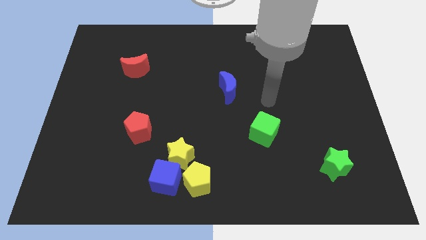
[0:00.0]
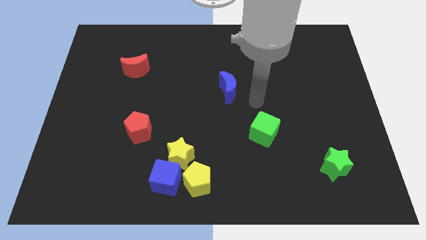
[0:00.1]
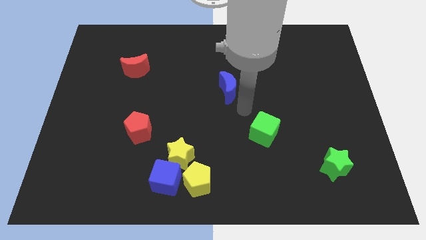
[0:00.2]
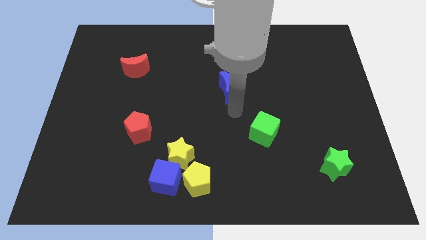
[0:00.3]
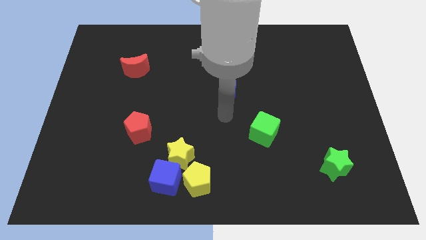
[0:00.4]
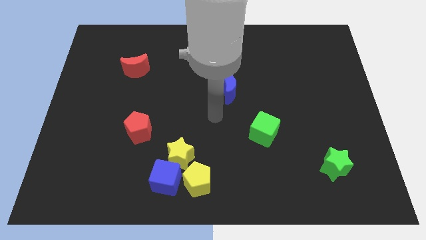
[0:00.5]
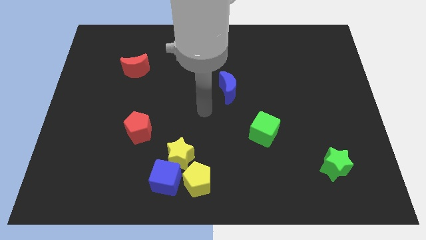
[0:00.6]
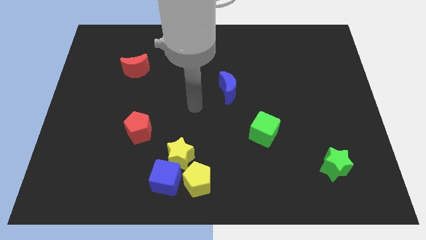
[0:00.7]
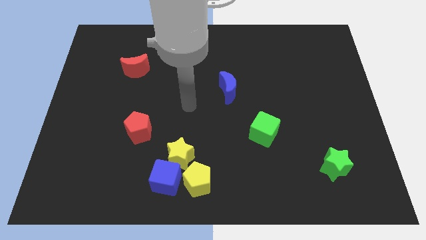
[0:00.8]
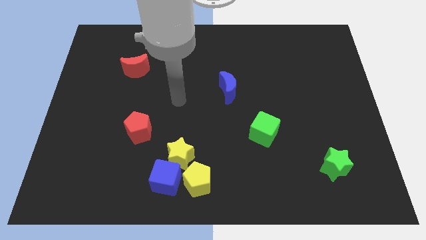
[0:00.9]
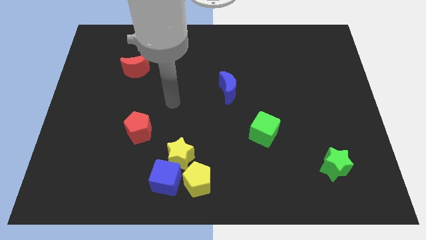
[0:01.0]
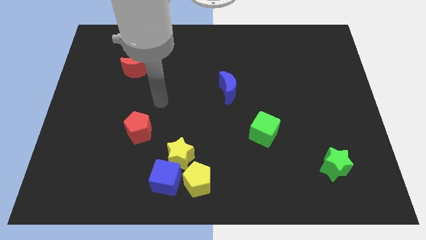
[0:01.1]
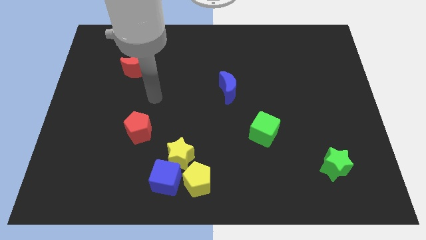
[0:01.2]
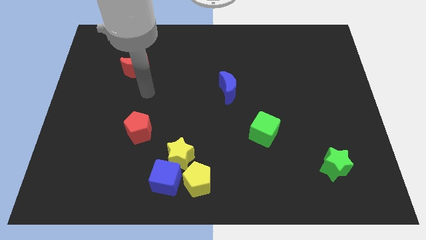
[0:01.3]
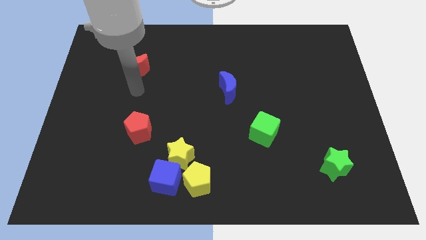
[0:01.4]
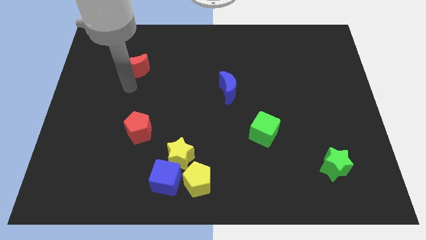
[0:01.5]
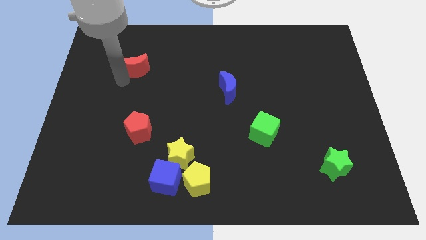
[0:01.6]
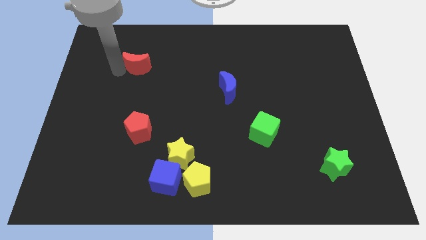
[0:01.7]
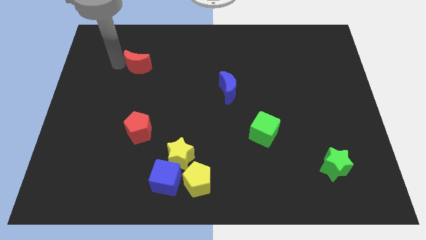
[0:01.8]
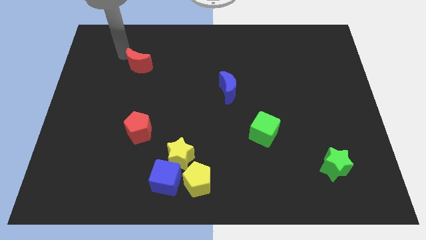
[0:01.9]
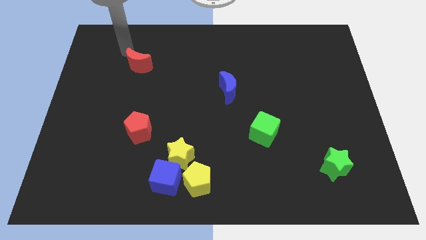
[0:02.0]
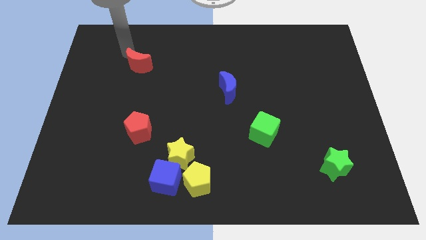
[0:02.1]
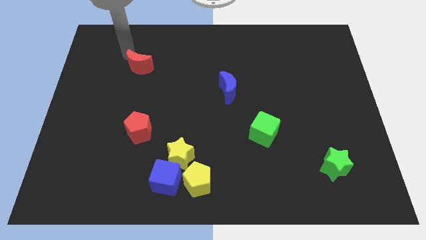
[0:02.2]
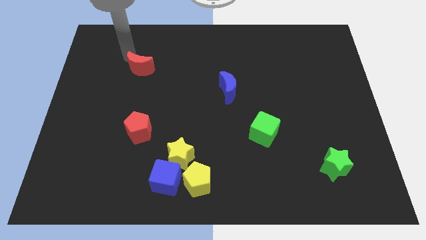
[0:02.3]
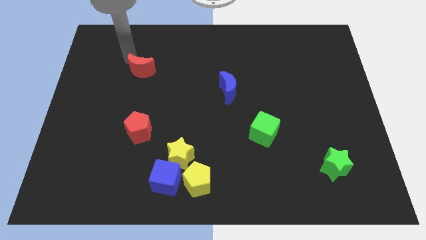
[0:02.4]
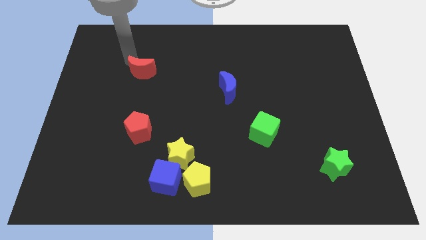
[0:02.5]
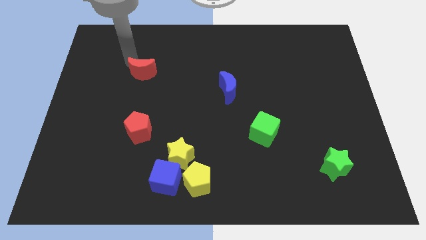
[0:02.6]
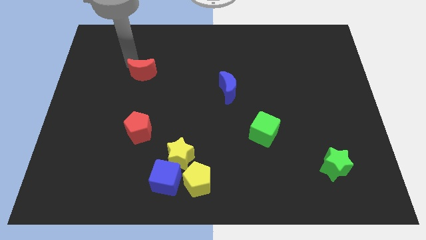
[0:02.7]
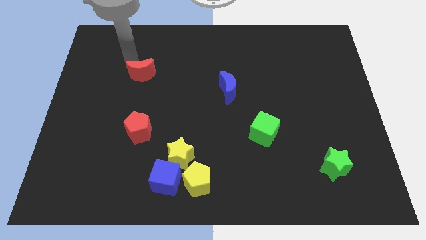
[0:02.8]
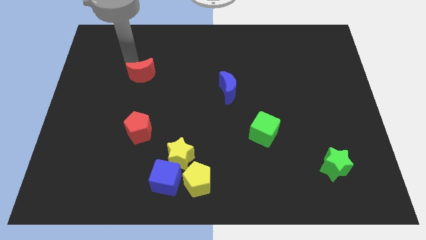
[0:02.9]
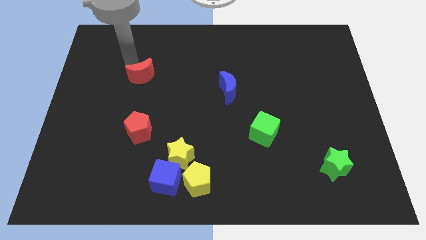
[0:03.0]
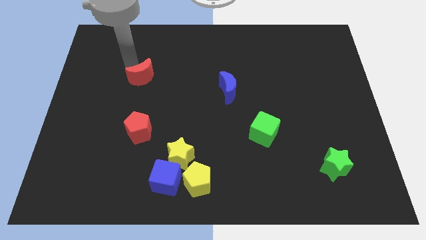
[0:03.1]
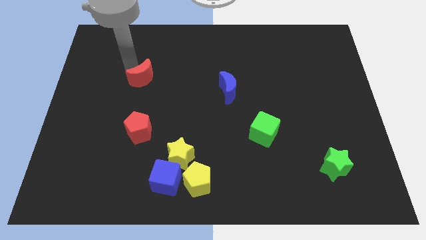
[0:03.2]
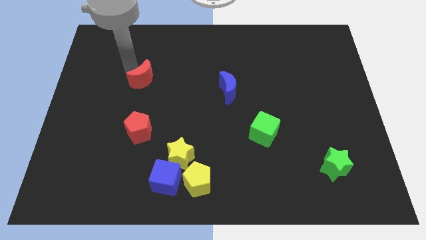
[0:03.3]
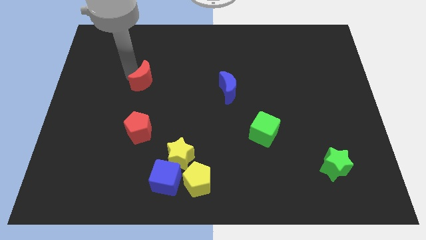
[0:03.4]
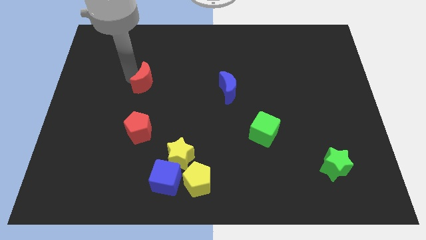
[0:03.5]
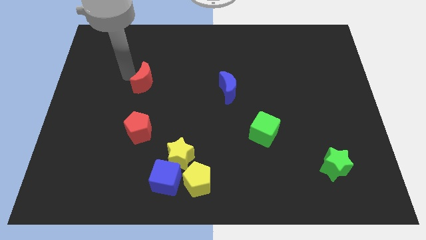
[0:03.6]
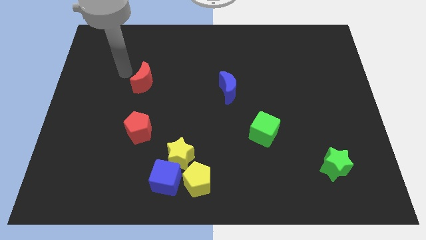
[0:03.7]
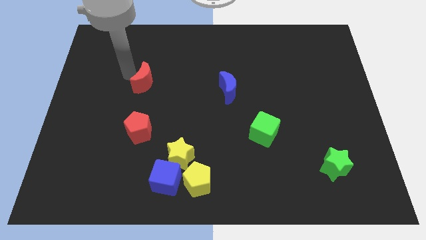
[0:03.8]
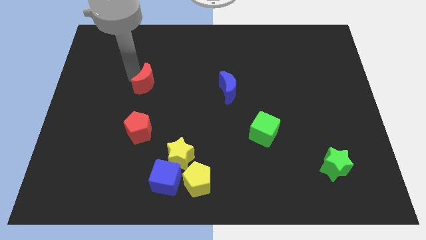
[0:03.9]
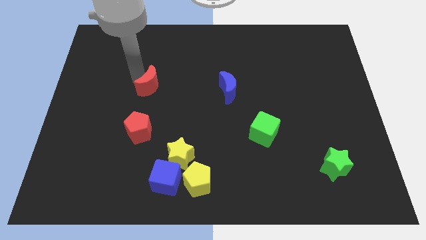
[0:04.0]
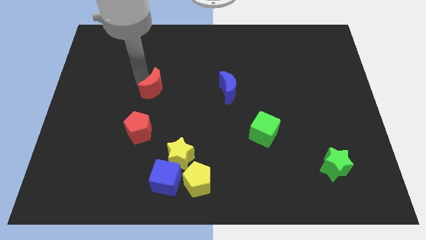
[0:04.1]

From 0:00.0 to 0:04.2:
slightly move the red moon down and right diagonally

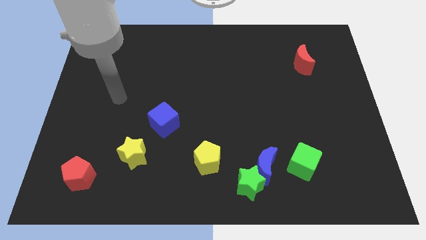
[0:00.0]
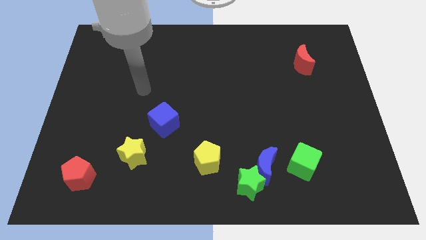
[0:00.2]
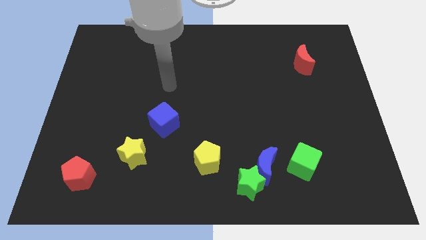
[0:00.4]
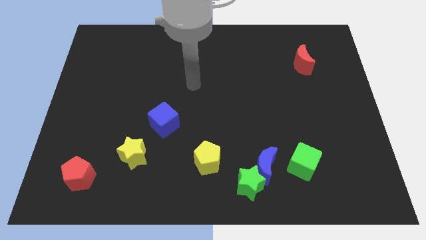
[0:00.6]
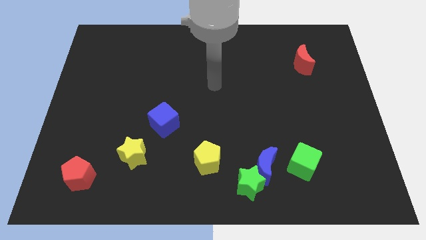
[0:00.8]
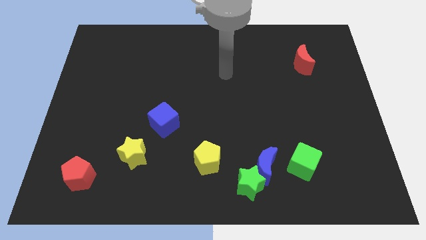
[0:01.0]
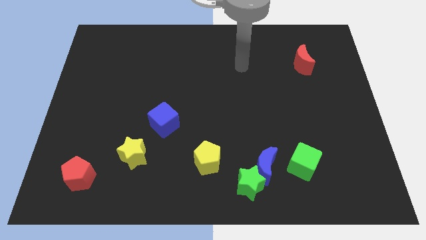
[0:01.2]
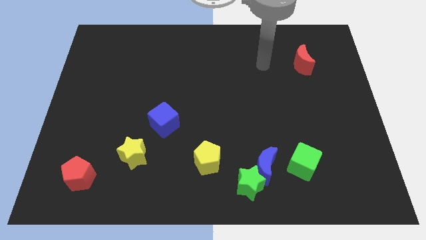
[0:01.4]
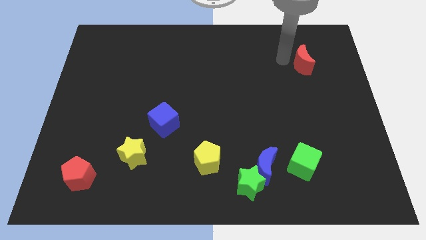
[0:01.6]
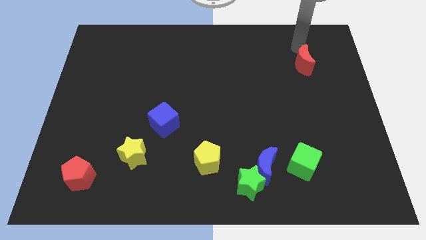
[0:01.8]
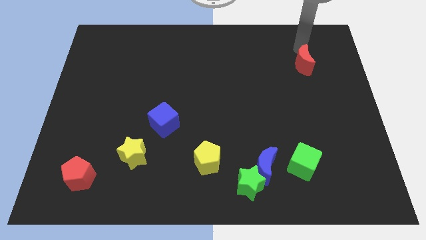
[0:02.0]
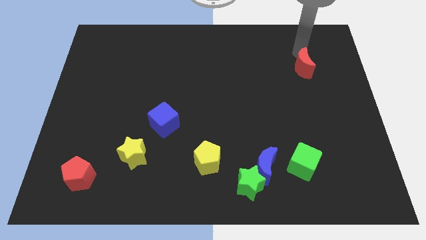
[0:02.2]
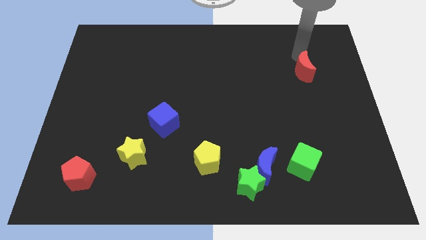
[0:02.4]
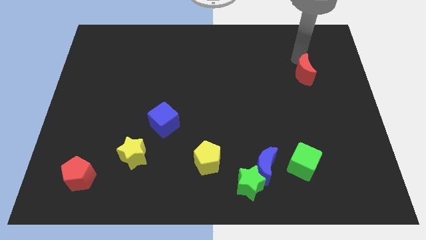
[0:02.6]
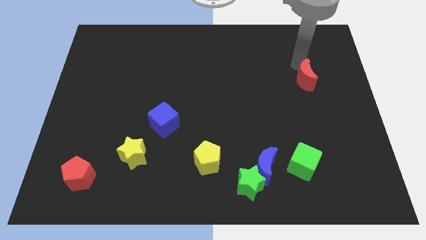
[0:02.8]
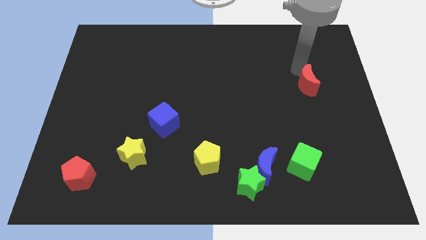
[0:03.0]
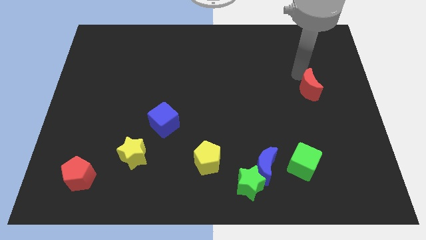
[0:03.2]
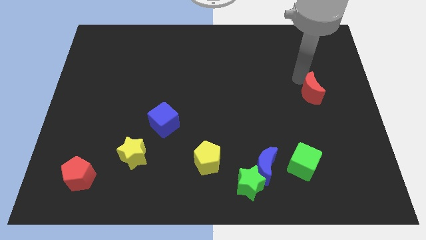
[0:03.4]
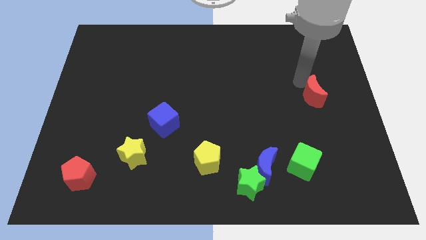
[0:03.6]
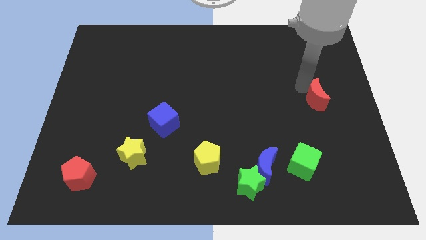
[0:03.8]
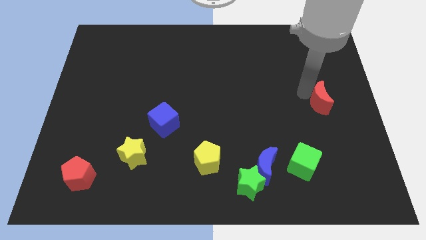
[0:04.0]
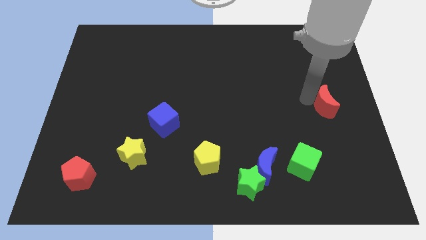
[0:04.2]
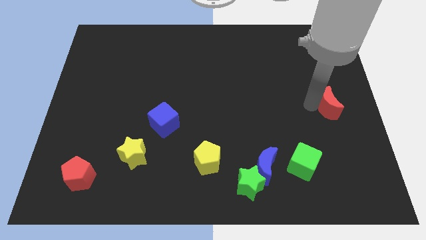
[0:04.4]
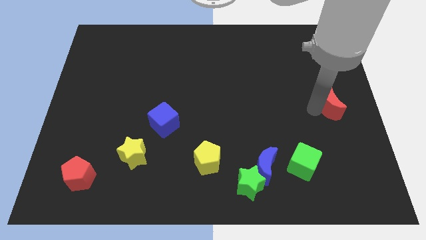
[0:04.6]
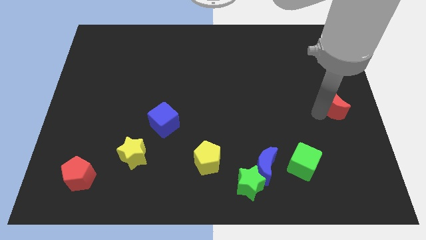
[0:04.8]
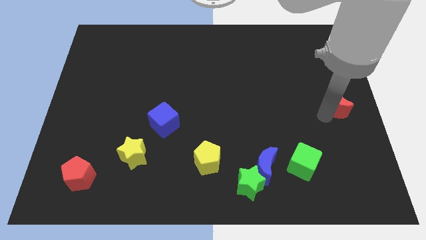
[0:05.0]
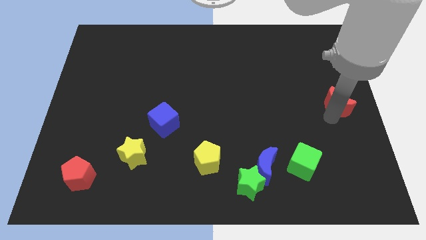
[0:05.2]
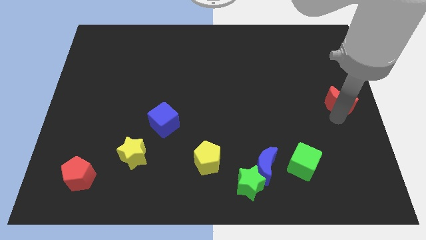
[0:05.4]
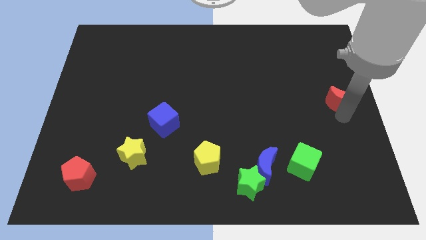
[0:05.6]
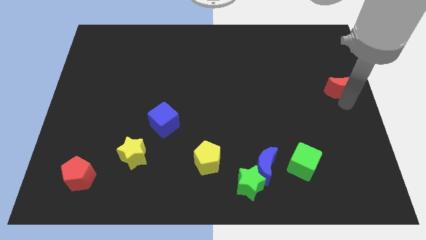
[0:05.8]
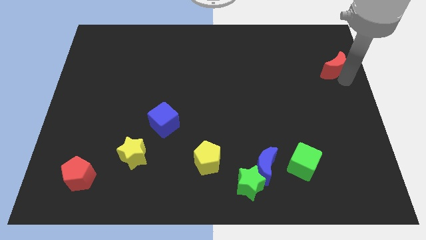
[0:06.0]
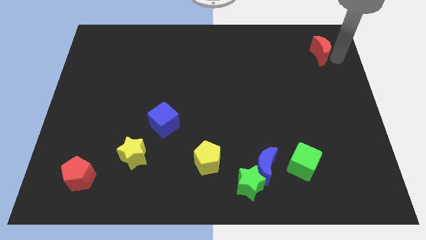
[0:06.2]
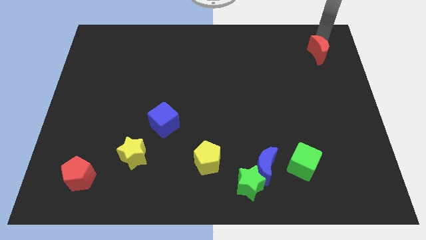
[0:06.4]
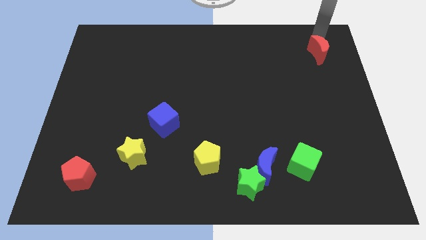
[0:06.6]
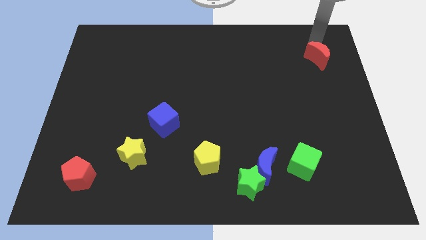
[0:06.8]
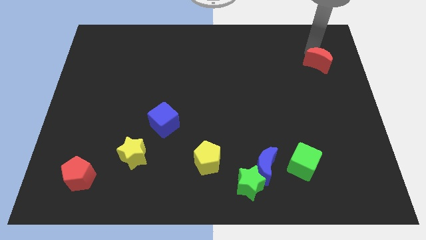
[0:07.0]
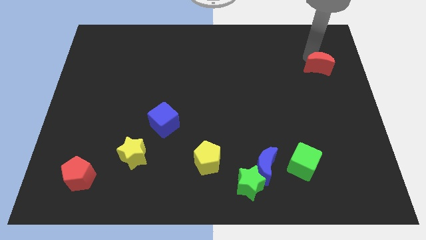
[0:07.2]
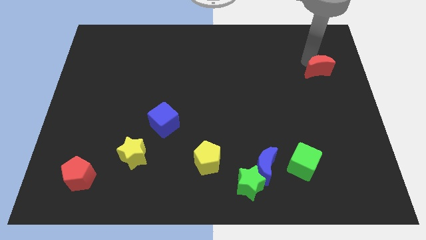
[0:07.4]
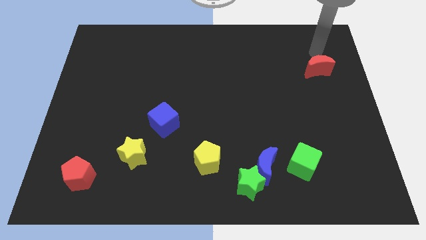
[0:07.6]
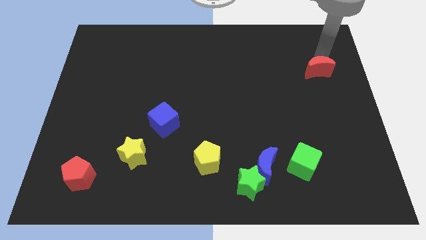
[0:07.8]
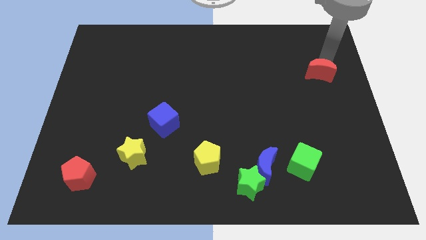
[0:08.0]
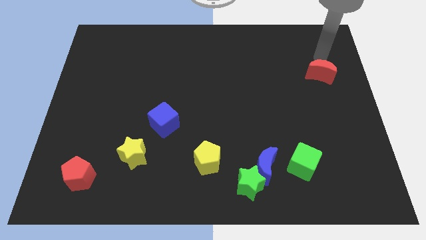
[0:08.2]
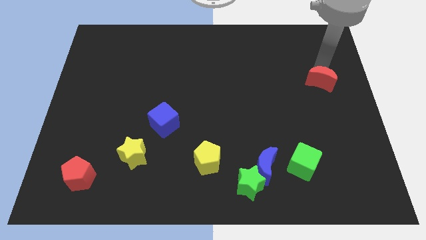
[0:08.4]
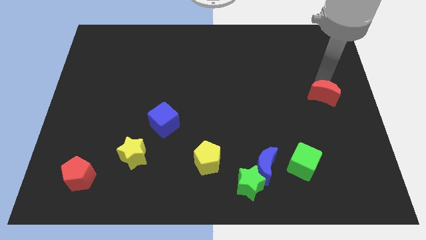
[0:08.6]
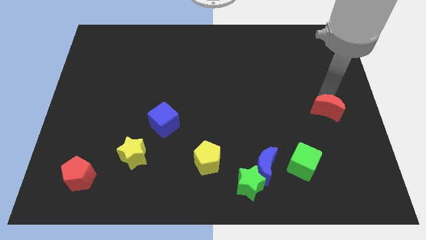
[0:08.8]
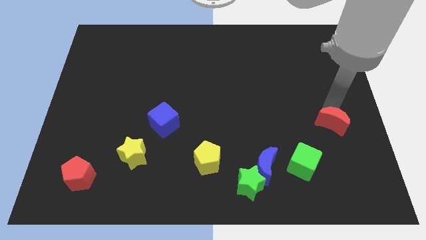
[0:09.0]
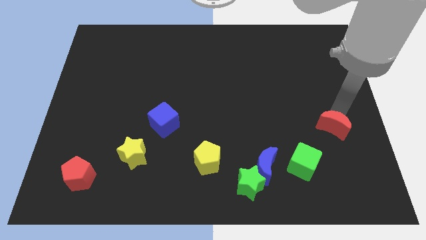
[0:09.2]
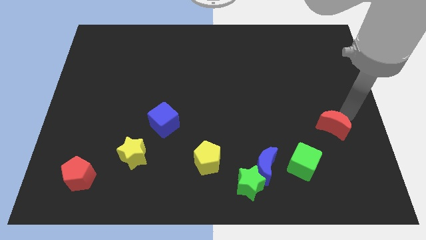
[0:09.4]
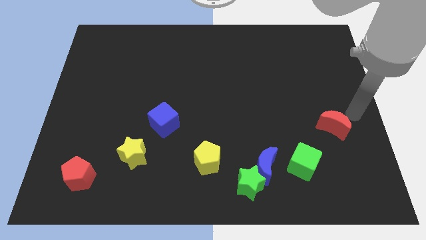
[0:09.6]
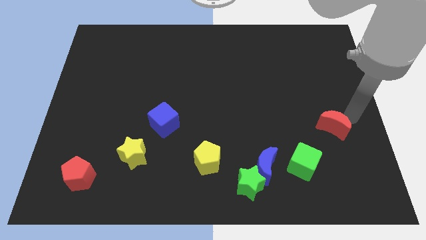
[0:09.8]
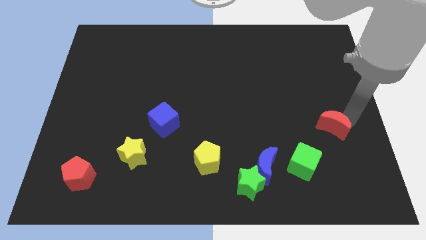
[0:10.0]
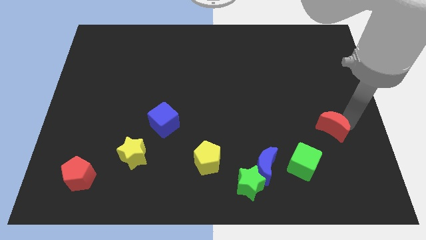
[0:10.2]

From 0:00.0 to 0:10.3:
move the red moon down
